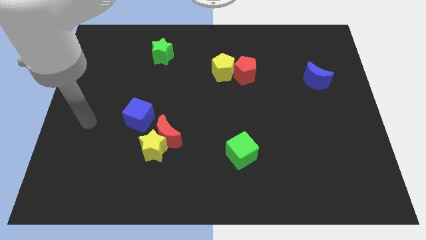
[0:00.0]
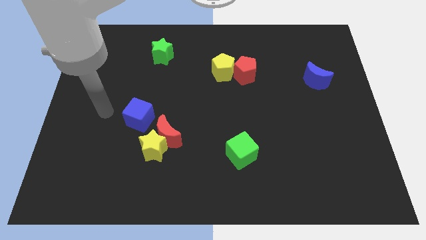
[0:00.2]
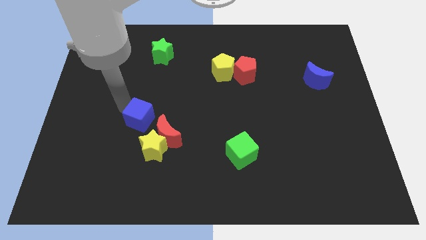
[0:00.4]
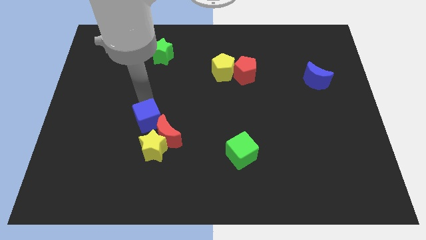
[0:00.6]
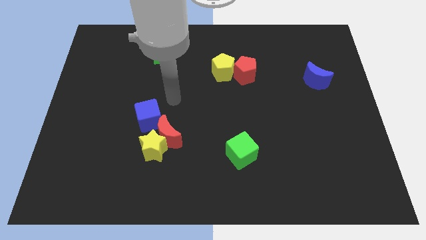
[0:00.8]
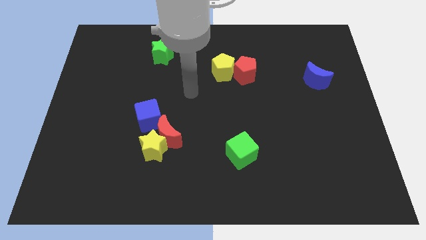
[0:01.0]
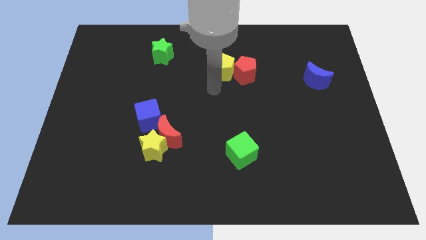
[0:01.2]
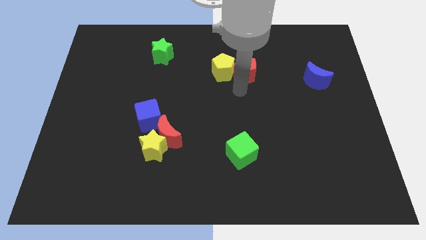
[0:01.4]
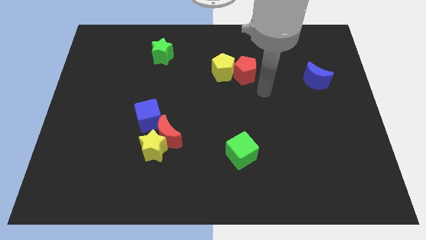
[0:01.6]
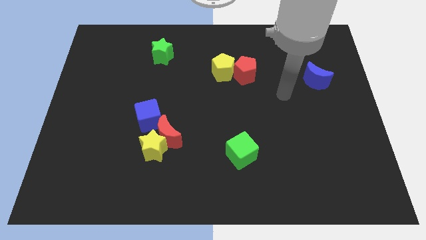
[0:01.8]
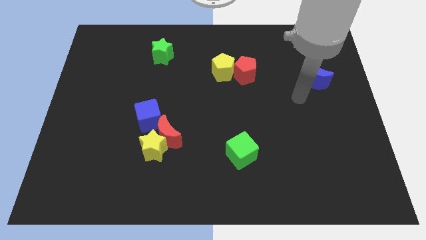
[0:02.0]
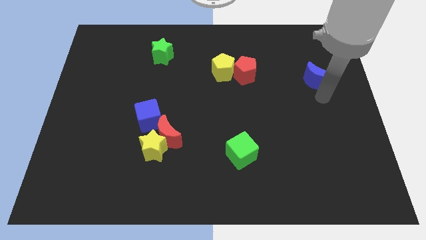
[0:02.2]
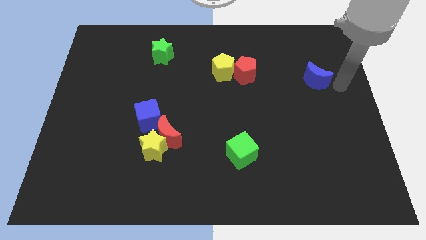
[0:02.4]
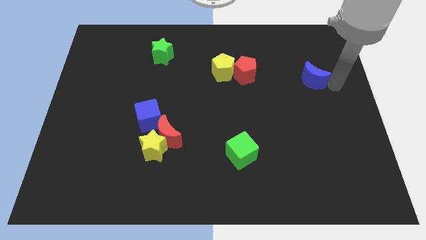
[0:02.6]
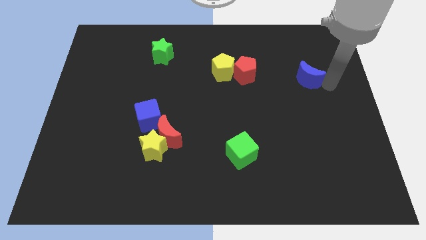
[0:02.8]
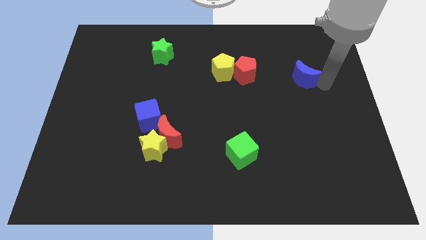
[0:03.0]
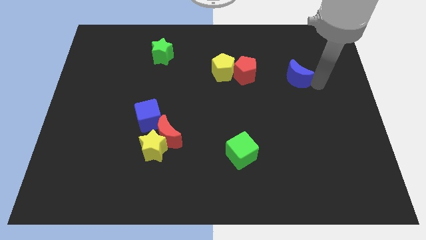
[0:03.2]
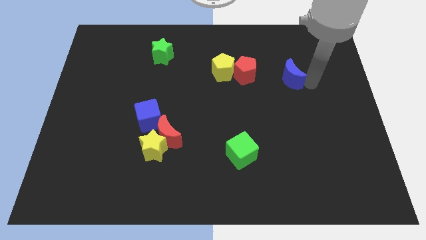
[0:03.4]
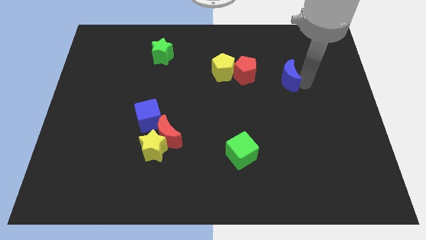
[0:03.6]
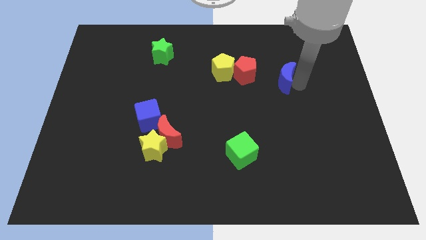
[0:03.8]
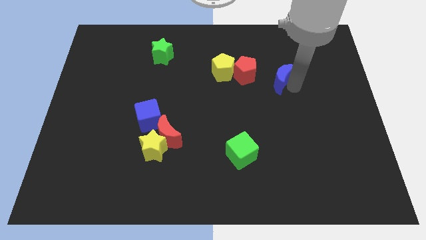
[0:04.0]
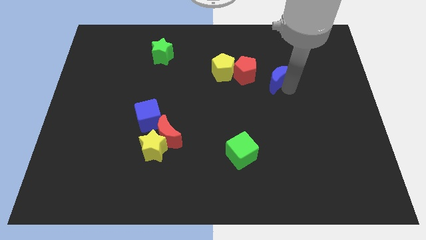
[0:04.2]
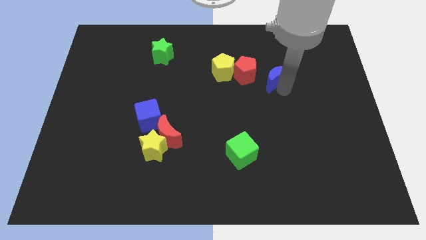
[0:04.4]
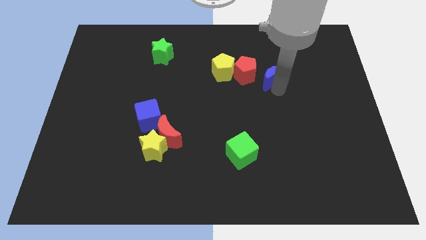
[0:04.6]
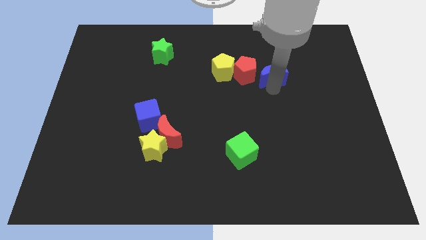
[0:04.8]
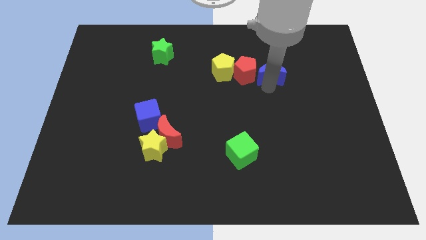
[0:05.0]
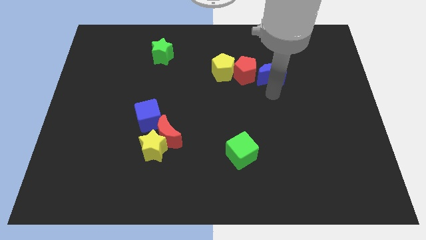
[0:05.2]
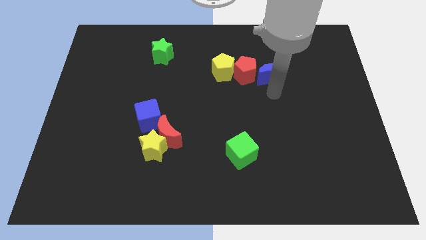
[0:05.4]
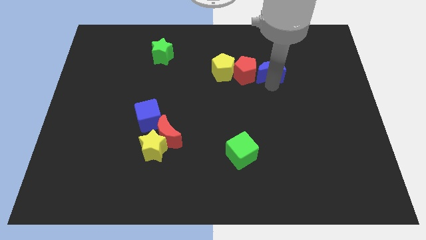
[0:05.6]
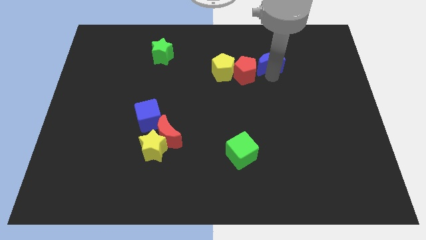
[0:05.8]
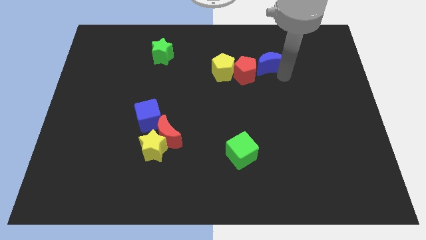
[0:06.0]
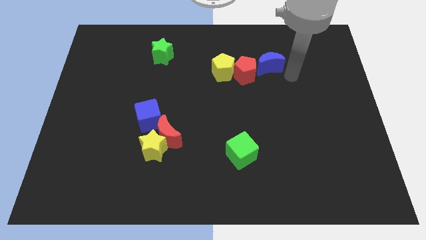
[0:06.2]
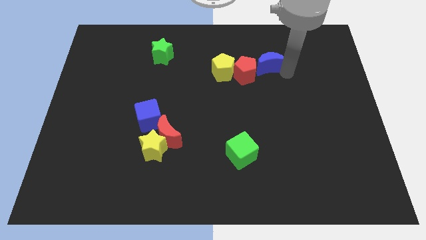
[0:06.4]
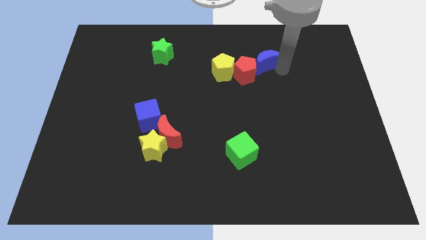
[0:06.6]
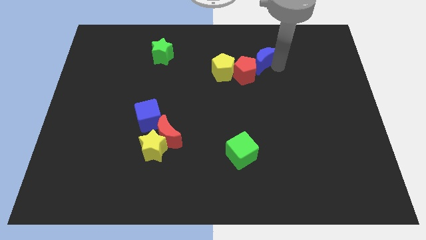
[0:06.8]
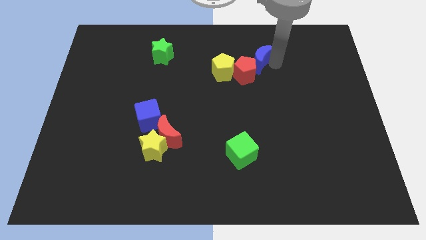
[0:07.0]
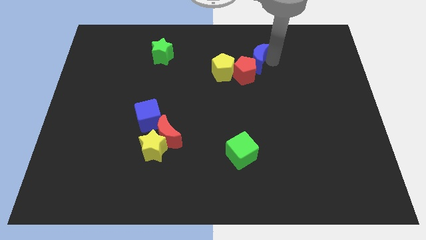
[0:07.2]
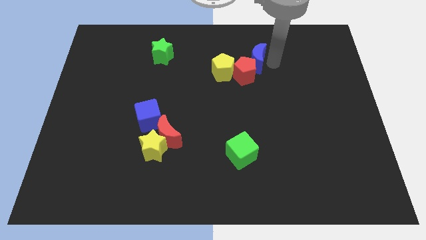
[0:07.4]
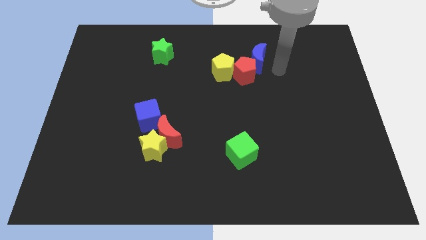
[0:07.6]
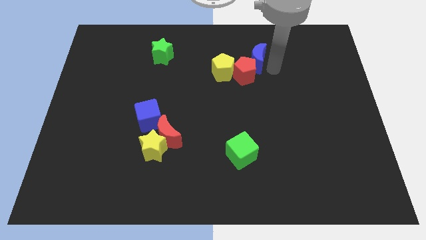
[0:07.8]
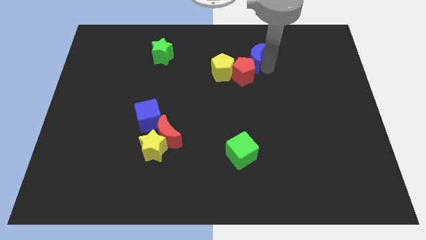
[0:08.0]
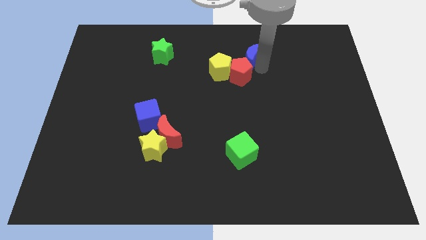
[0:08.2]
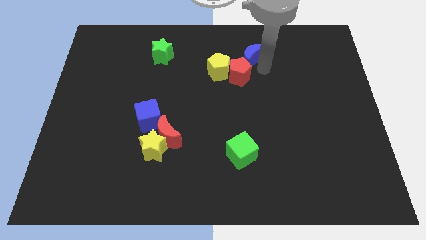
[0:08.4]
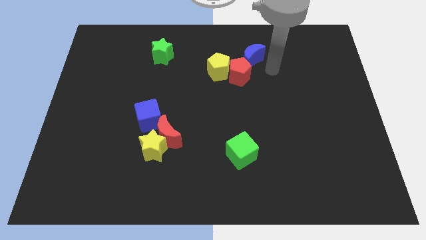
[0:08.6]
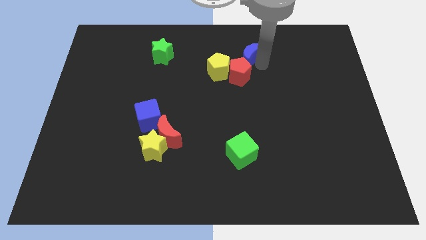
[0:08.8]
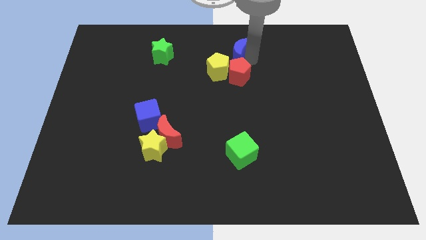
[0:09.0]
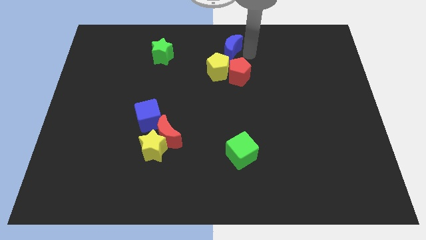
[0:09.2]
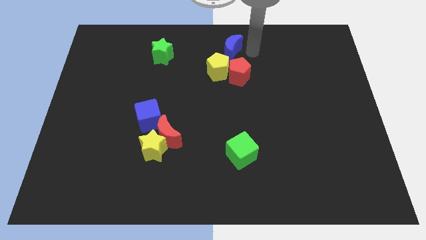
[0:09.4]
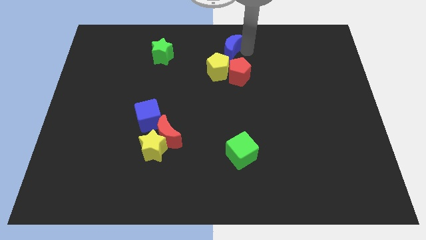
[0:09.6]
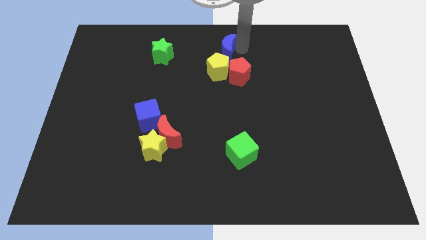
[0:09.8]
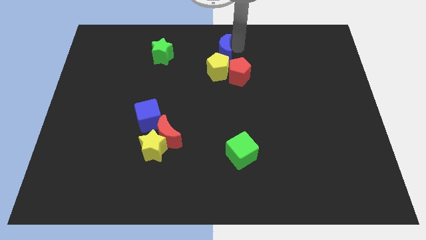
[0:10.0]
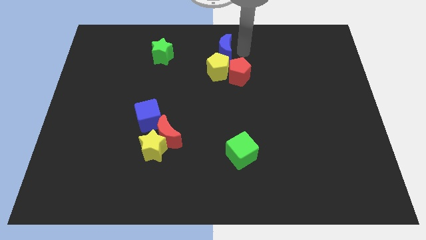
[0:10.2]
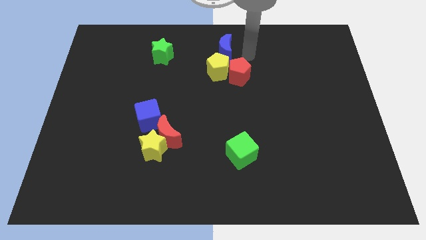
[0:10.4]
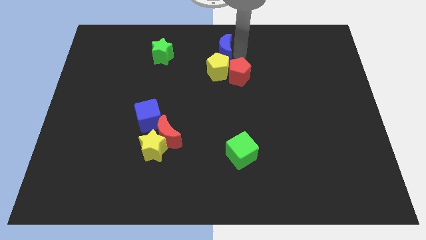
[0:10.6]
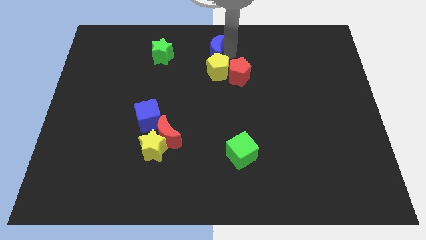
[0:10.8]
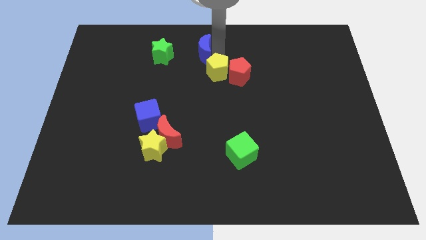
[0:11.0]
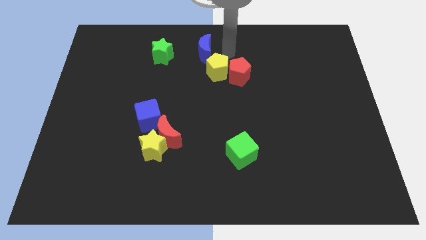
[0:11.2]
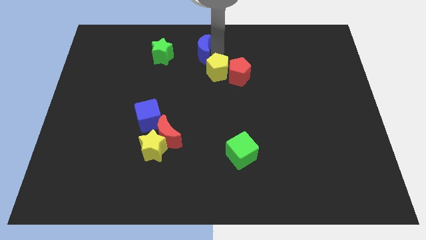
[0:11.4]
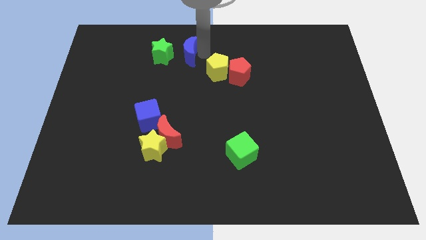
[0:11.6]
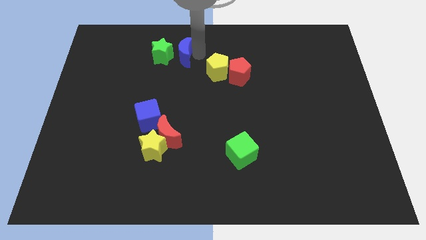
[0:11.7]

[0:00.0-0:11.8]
push the blue moon towards the green star

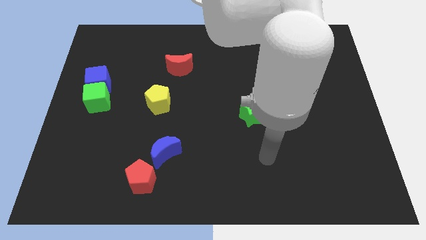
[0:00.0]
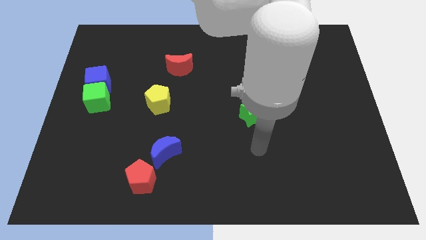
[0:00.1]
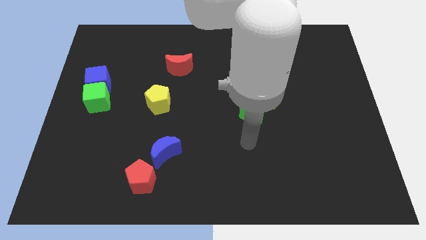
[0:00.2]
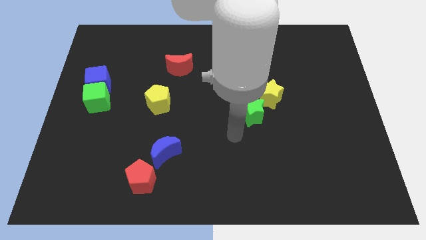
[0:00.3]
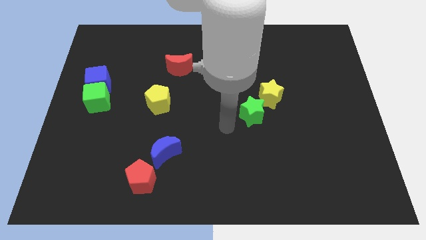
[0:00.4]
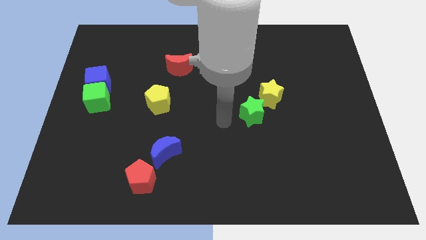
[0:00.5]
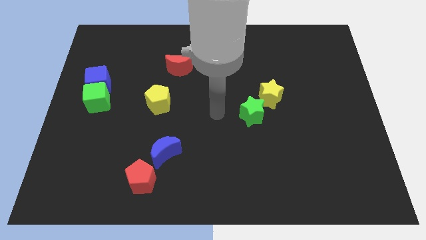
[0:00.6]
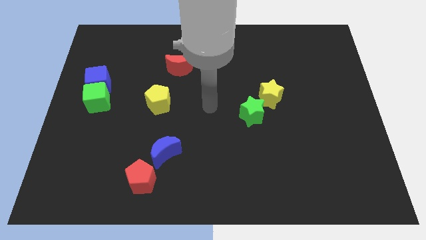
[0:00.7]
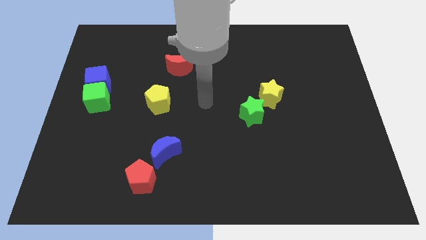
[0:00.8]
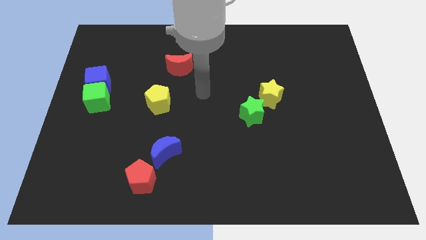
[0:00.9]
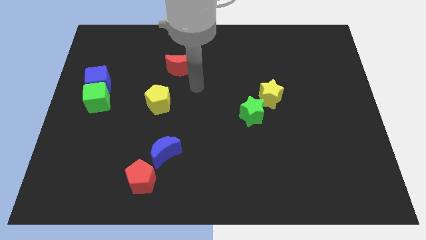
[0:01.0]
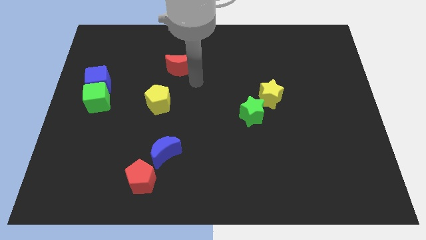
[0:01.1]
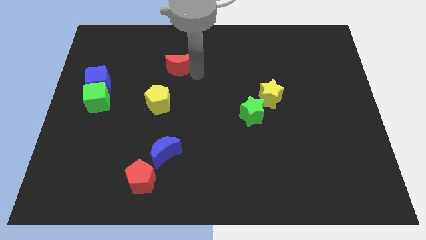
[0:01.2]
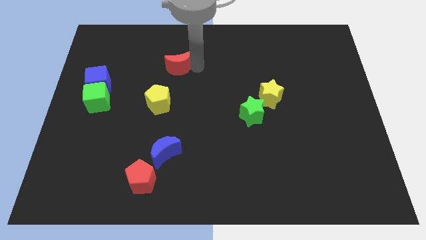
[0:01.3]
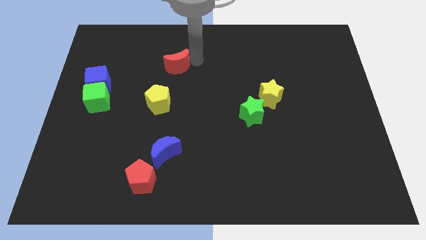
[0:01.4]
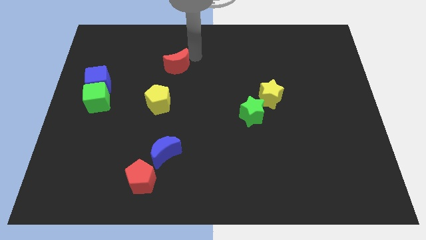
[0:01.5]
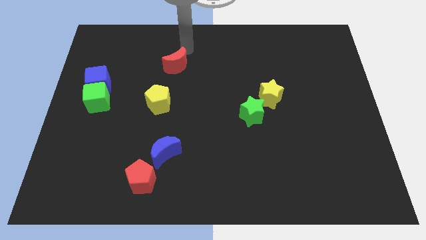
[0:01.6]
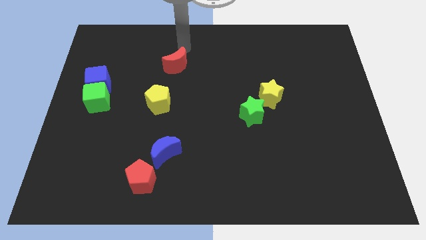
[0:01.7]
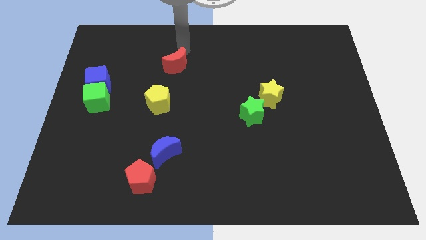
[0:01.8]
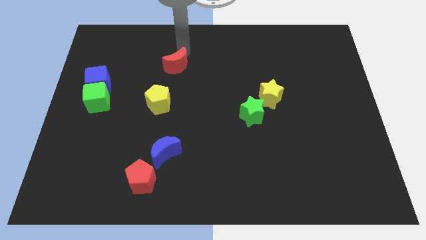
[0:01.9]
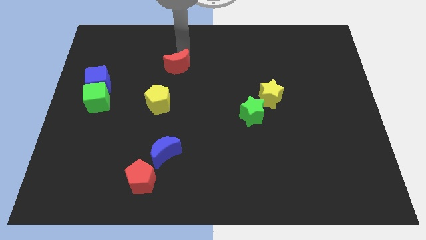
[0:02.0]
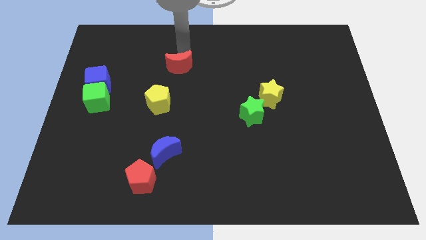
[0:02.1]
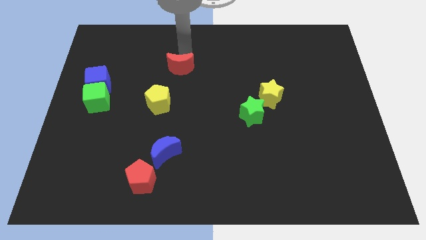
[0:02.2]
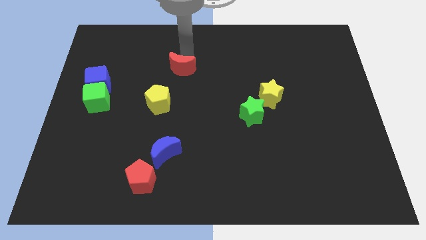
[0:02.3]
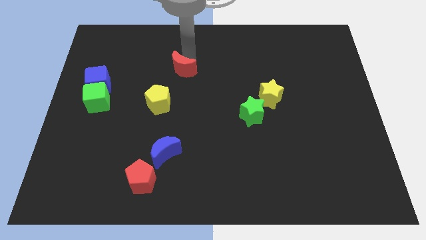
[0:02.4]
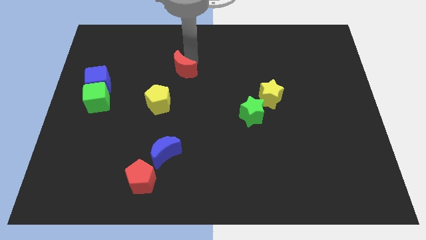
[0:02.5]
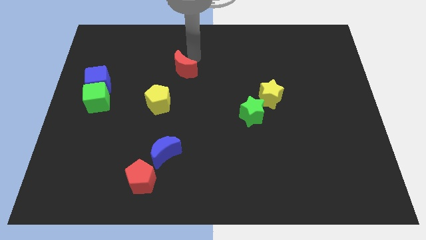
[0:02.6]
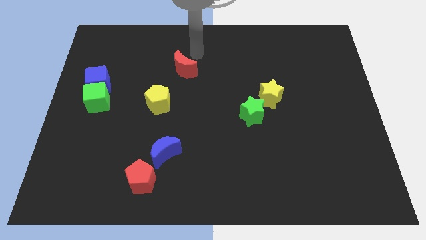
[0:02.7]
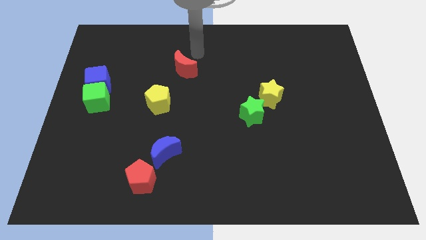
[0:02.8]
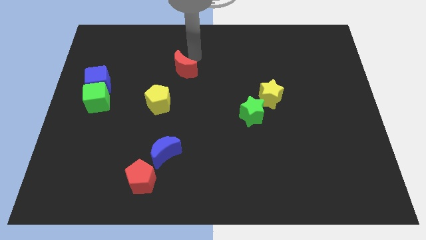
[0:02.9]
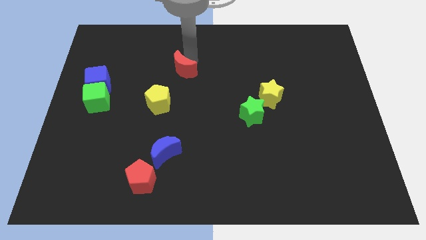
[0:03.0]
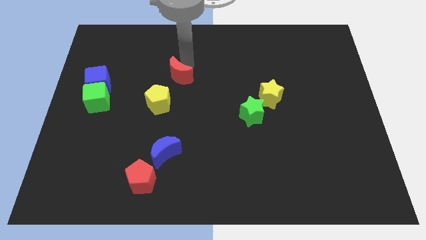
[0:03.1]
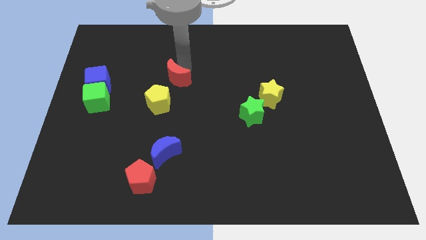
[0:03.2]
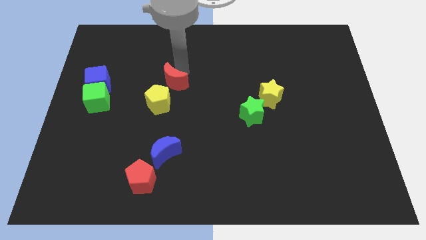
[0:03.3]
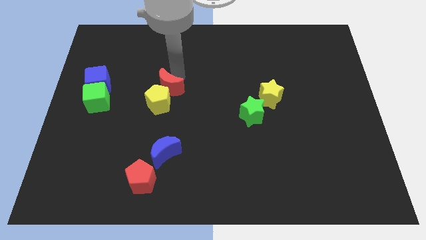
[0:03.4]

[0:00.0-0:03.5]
move the red moon towards the yellow pentagon
